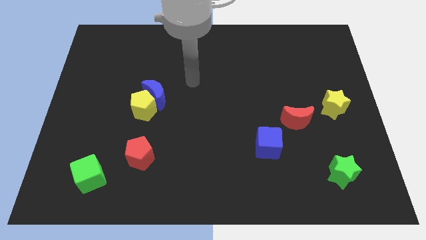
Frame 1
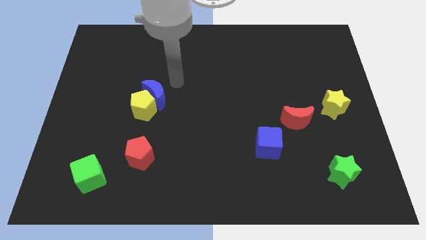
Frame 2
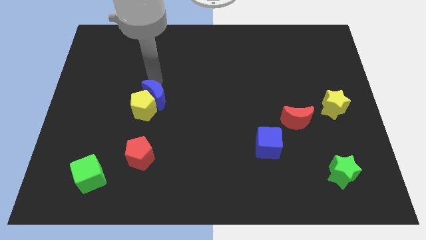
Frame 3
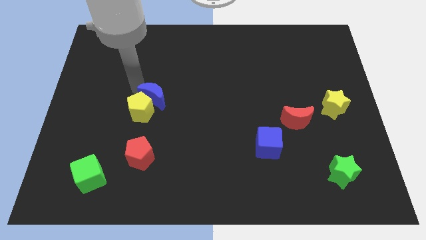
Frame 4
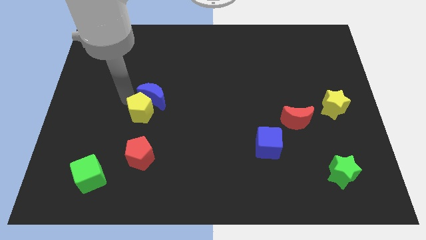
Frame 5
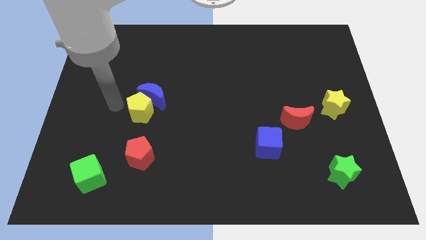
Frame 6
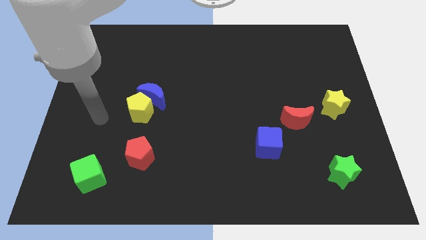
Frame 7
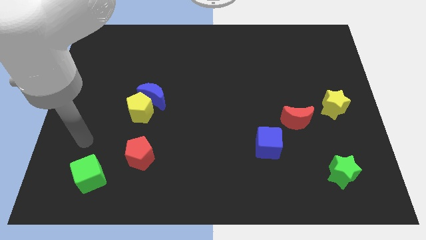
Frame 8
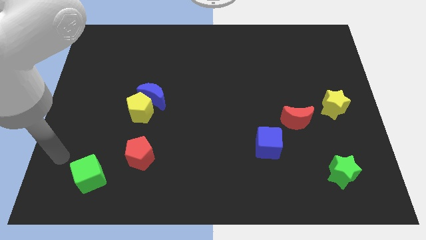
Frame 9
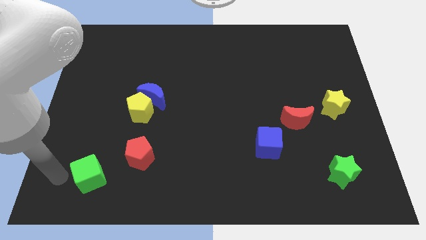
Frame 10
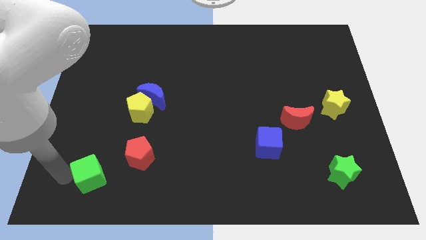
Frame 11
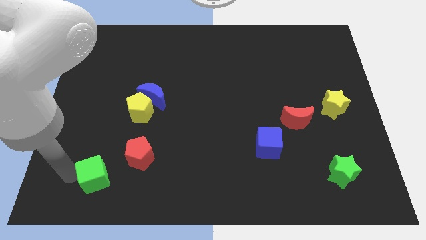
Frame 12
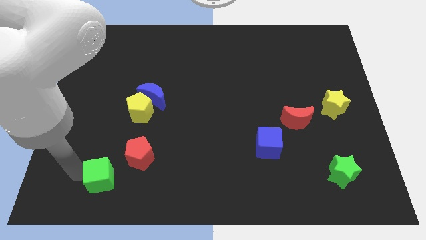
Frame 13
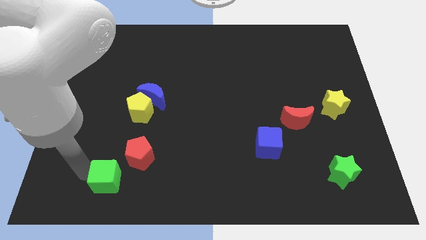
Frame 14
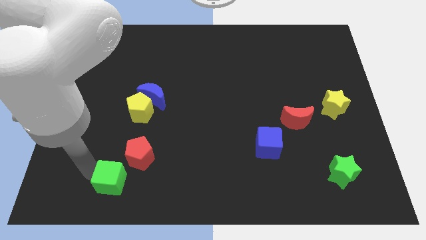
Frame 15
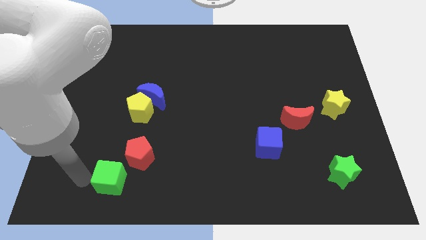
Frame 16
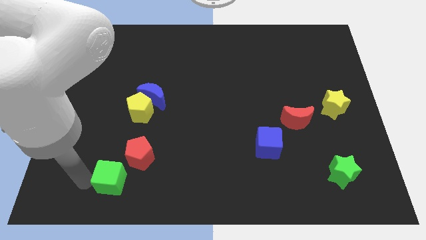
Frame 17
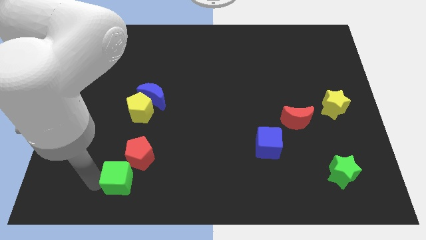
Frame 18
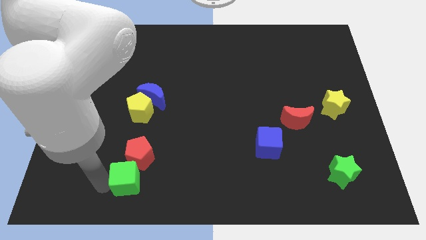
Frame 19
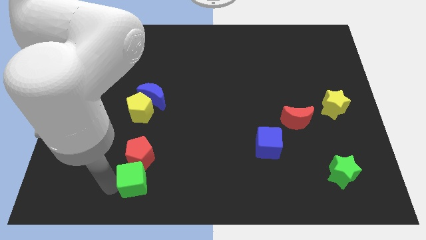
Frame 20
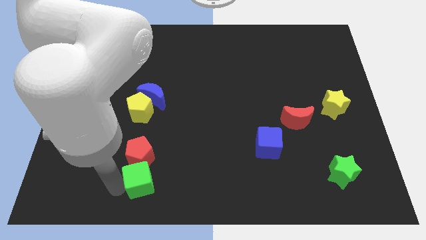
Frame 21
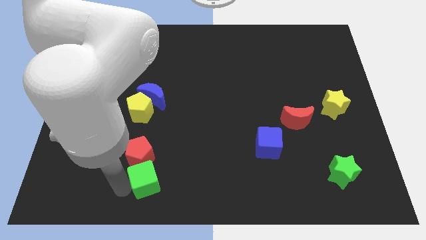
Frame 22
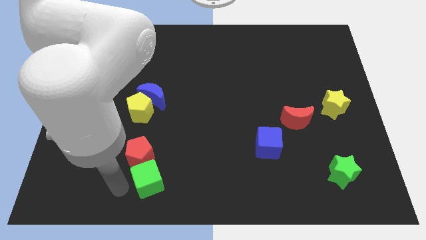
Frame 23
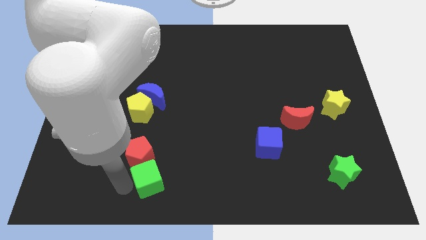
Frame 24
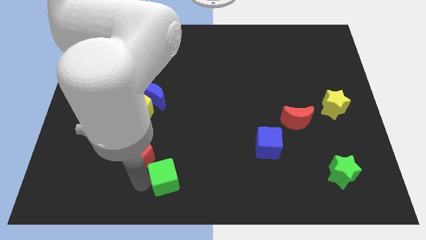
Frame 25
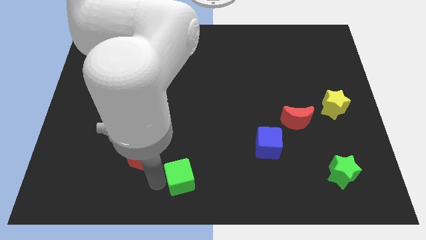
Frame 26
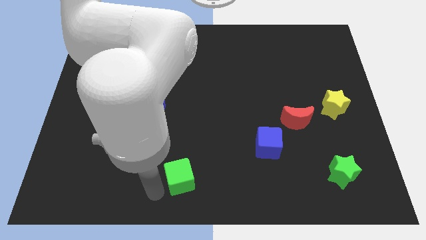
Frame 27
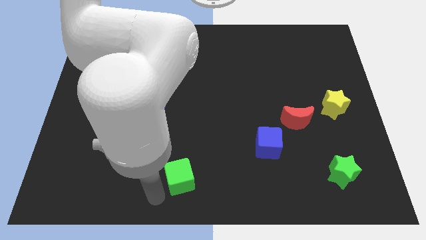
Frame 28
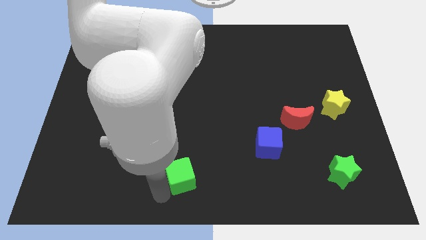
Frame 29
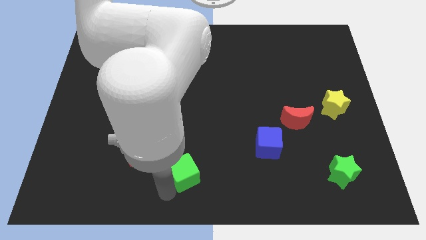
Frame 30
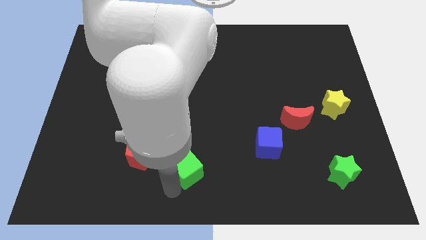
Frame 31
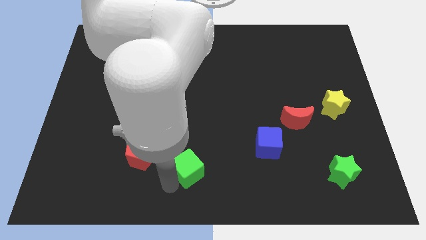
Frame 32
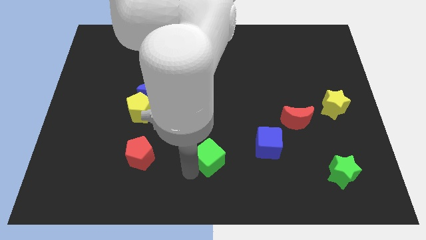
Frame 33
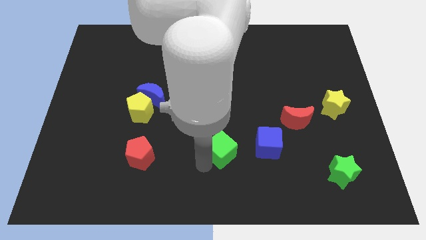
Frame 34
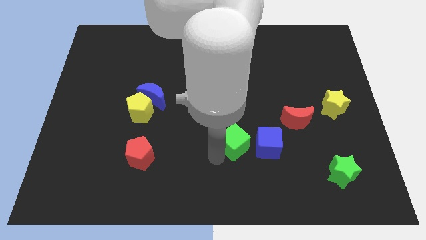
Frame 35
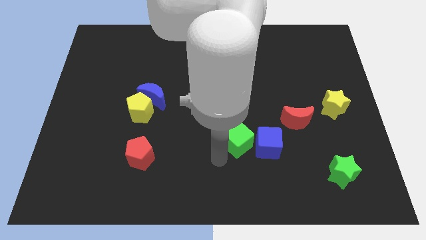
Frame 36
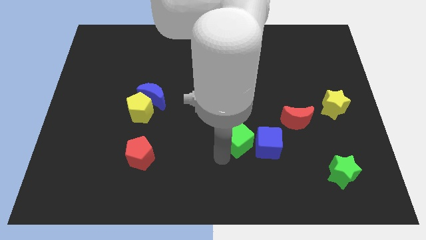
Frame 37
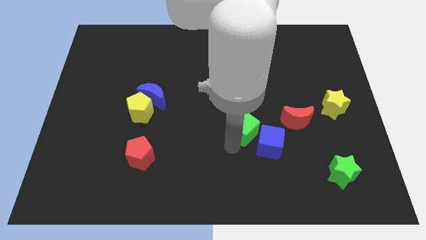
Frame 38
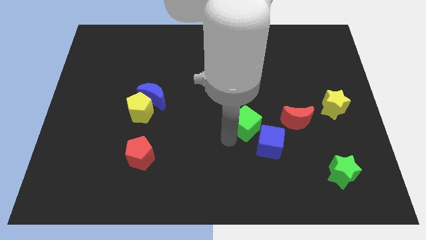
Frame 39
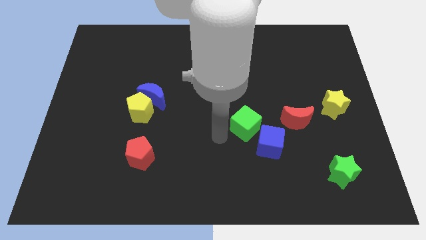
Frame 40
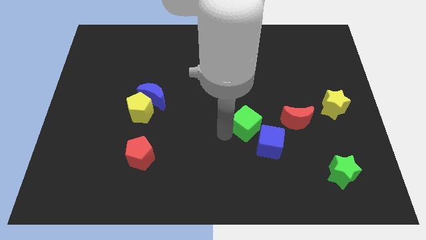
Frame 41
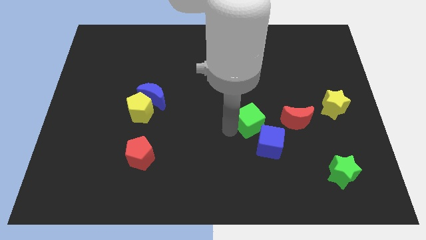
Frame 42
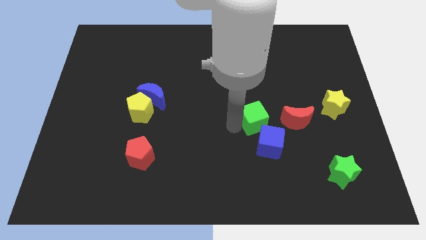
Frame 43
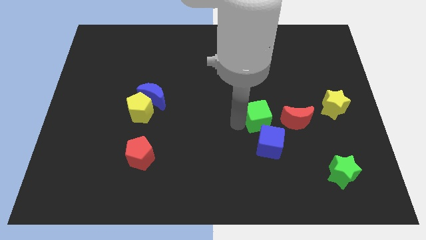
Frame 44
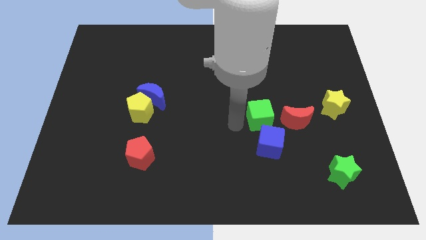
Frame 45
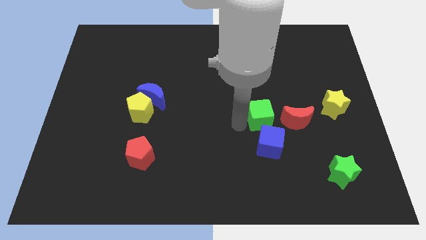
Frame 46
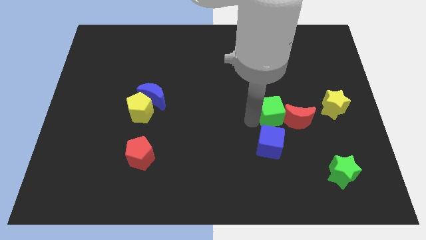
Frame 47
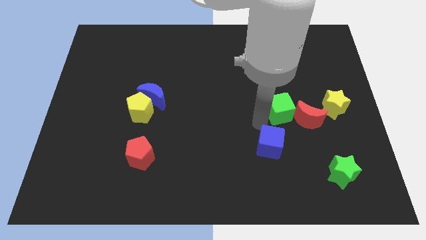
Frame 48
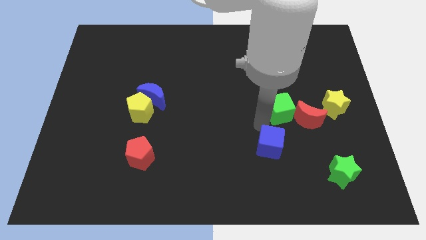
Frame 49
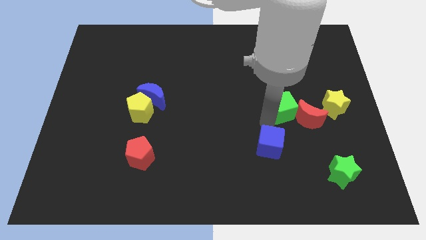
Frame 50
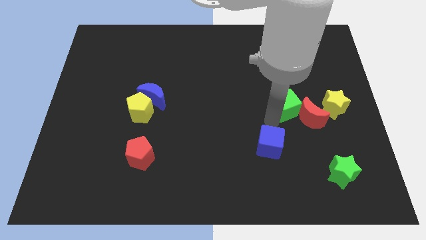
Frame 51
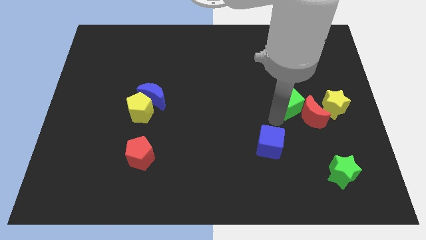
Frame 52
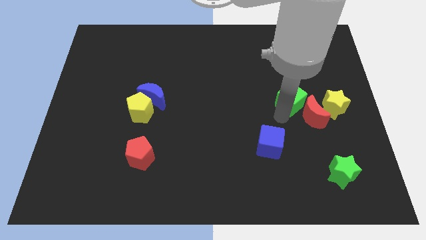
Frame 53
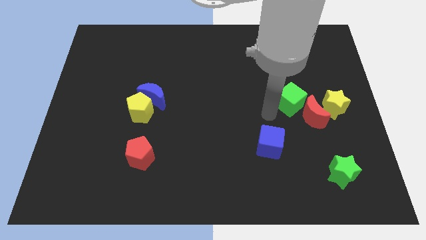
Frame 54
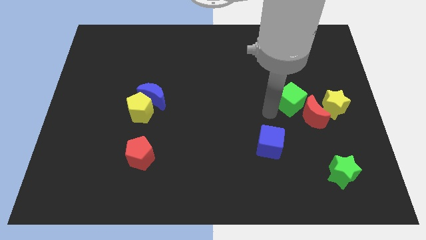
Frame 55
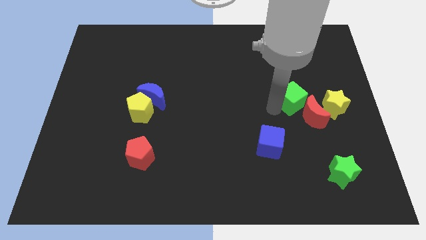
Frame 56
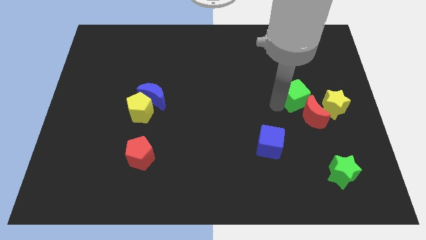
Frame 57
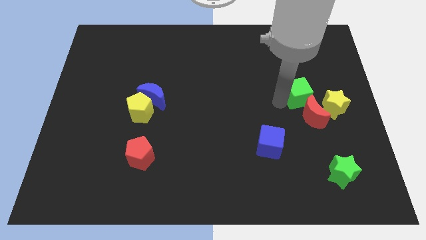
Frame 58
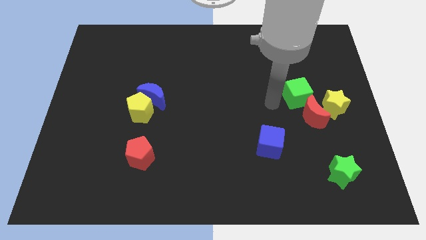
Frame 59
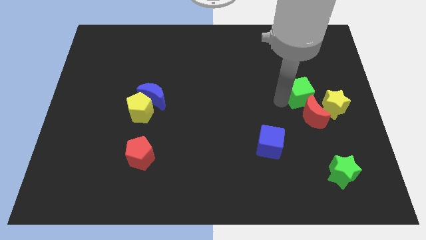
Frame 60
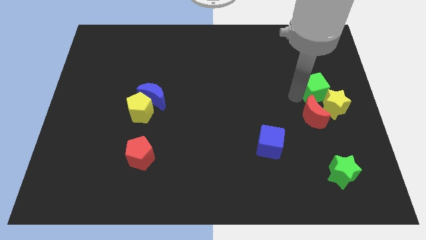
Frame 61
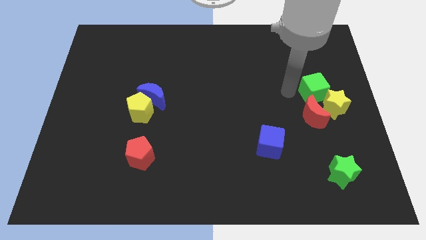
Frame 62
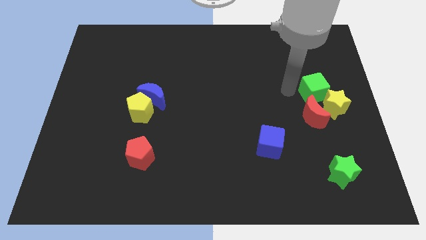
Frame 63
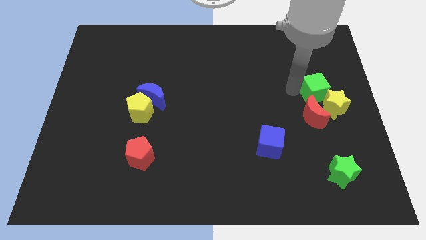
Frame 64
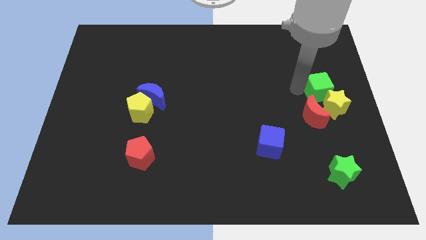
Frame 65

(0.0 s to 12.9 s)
move the green cube to the right side of the board
